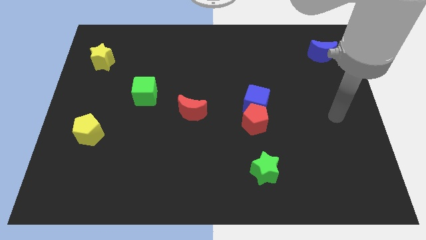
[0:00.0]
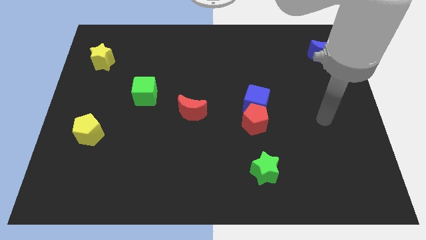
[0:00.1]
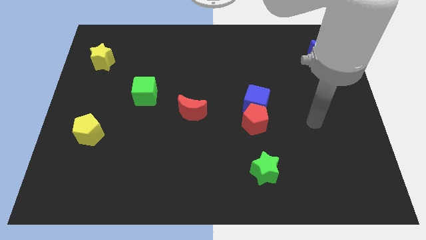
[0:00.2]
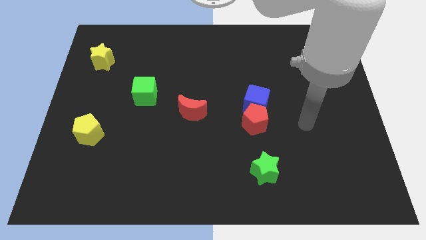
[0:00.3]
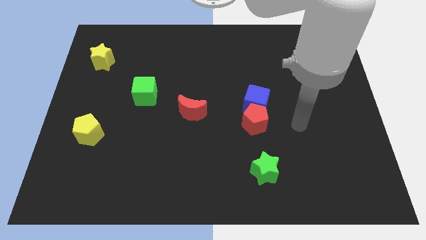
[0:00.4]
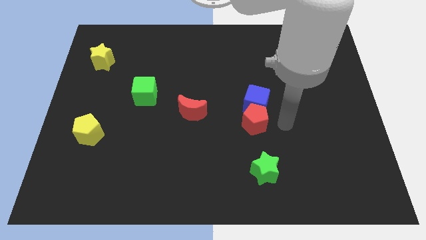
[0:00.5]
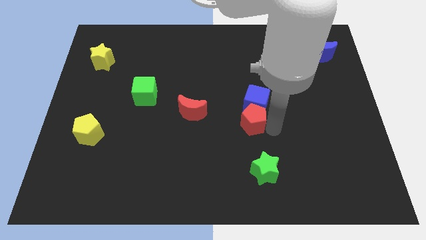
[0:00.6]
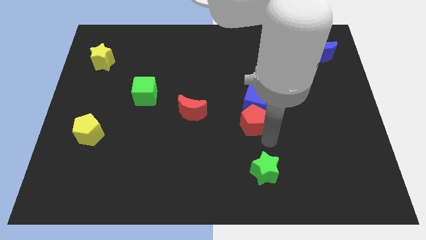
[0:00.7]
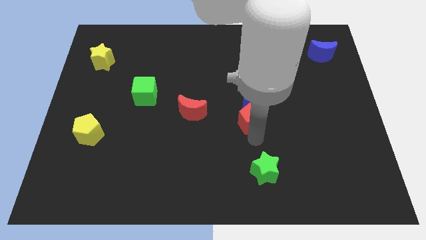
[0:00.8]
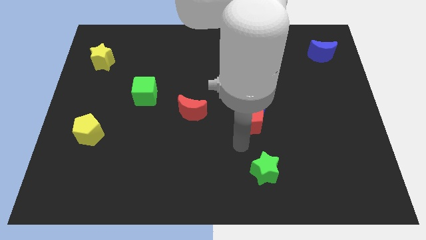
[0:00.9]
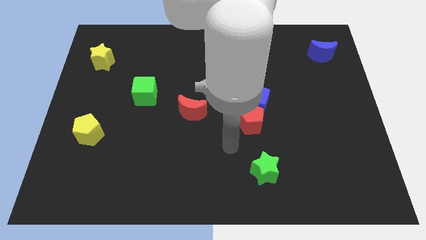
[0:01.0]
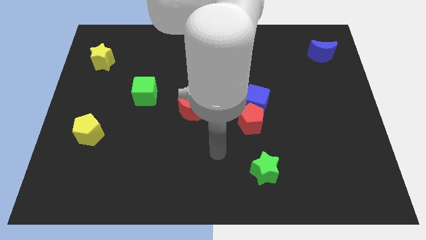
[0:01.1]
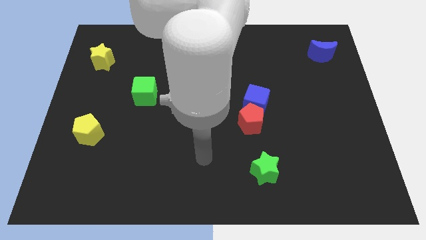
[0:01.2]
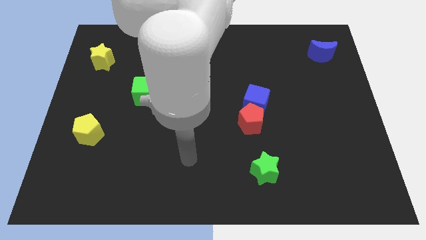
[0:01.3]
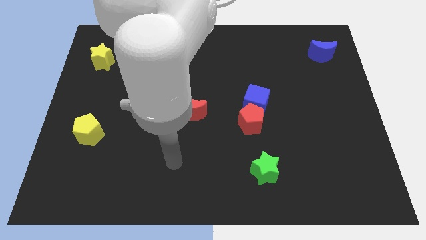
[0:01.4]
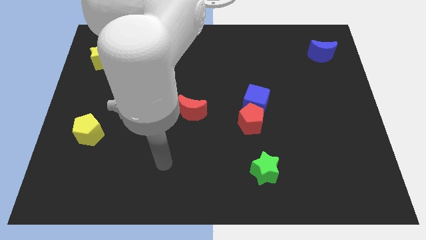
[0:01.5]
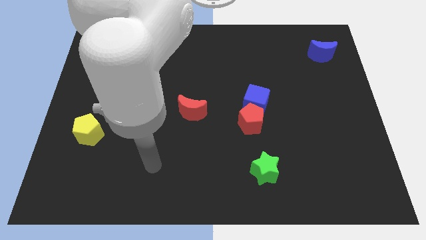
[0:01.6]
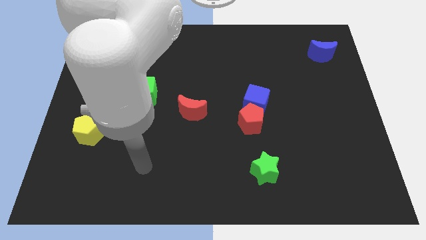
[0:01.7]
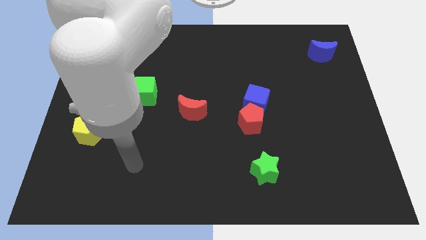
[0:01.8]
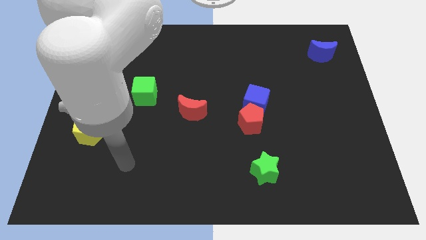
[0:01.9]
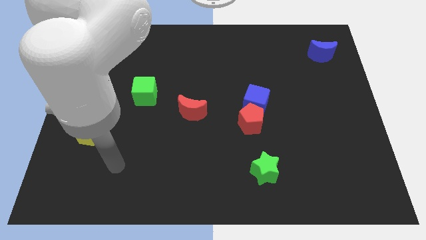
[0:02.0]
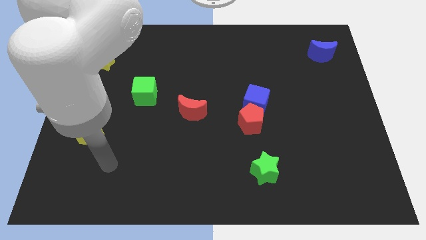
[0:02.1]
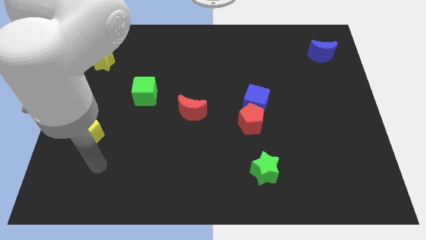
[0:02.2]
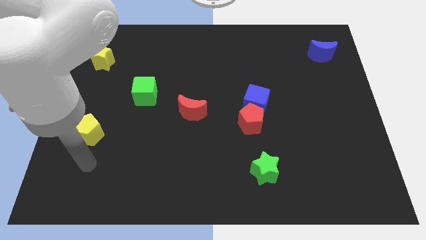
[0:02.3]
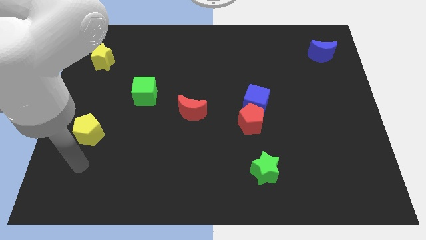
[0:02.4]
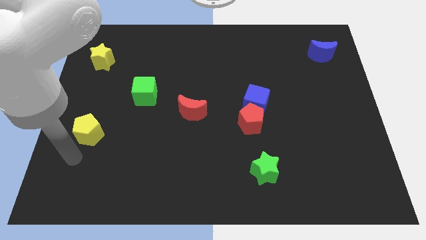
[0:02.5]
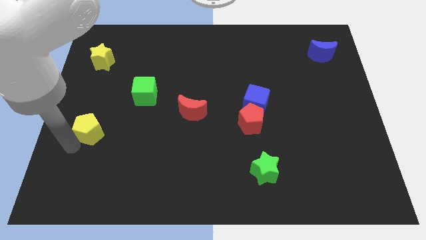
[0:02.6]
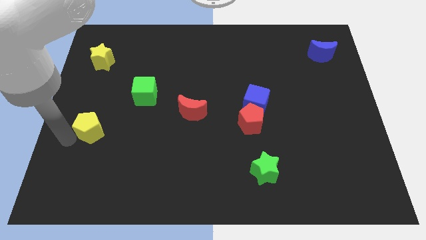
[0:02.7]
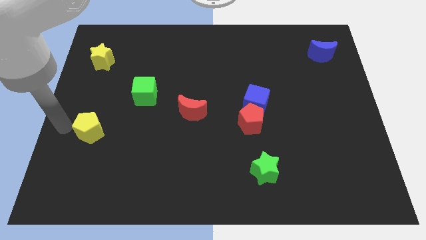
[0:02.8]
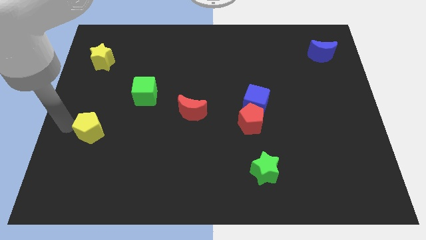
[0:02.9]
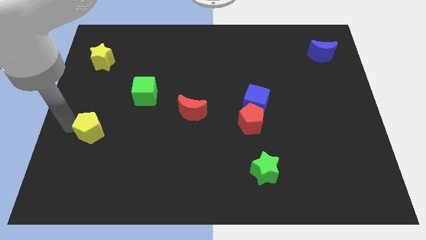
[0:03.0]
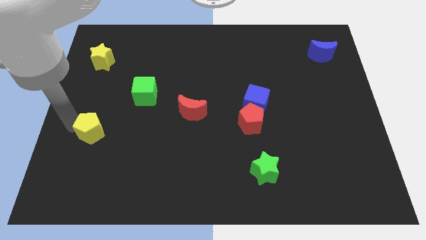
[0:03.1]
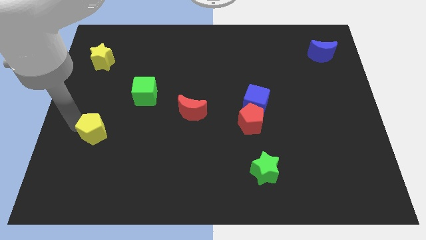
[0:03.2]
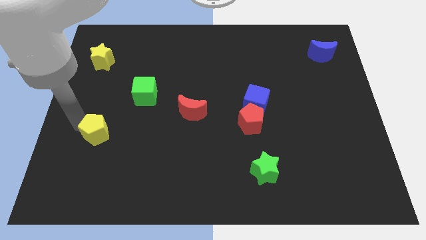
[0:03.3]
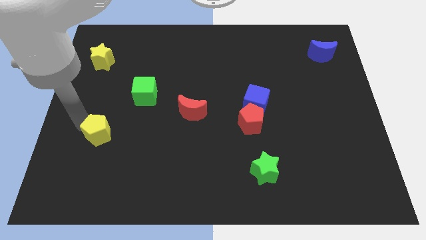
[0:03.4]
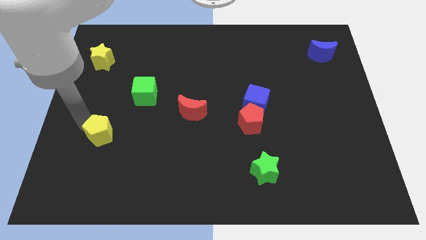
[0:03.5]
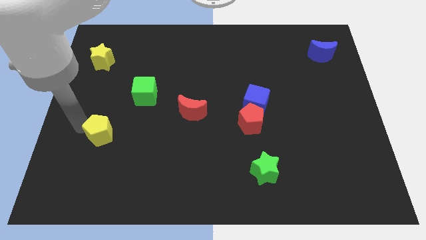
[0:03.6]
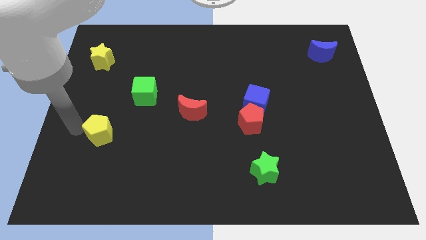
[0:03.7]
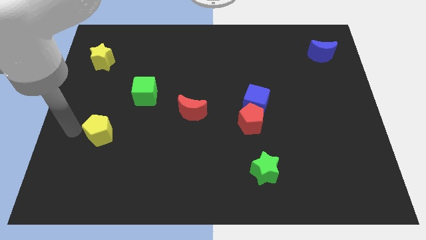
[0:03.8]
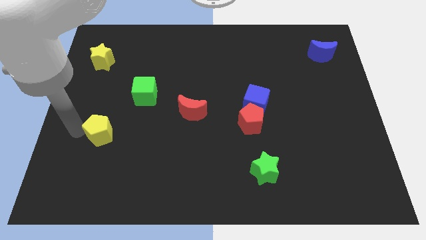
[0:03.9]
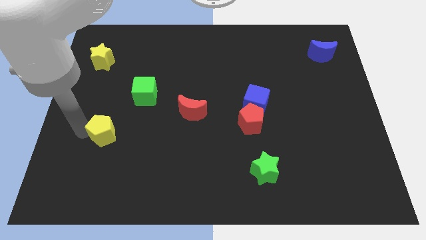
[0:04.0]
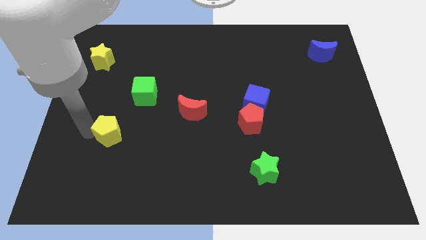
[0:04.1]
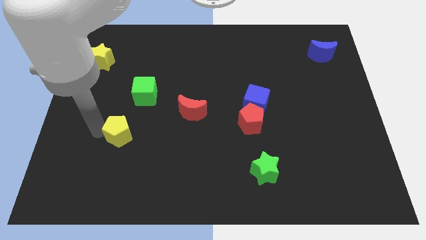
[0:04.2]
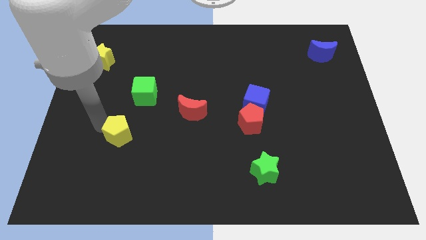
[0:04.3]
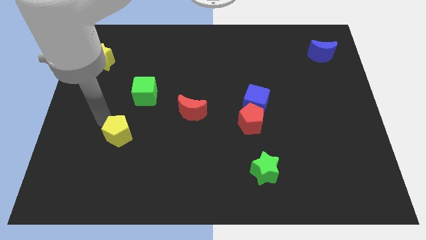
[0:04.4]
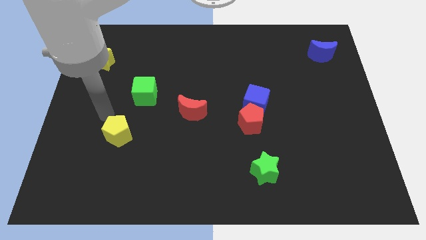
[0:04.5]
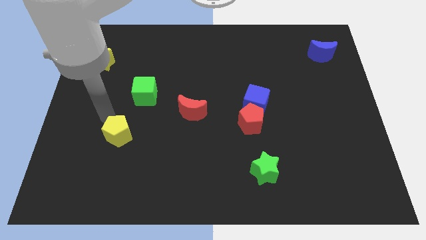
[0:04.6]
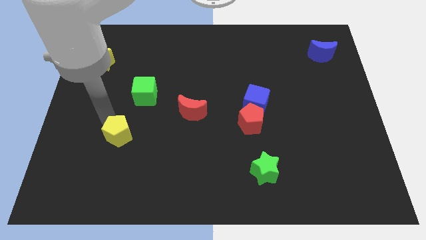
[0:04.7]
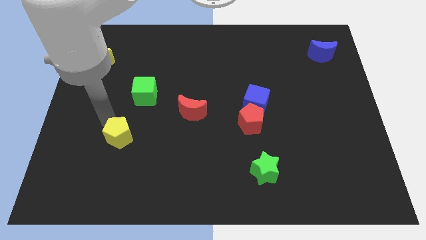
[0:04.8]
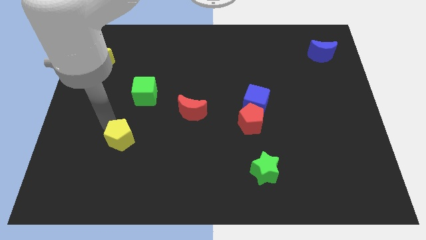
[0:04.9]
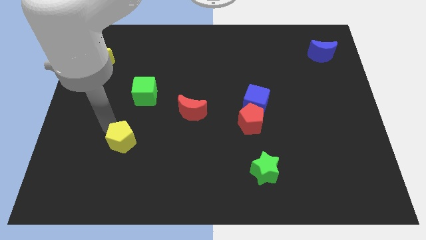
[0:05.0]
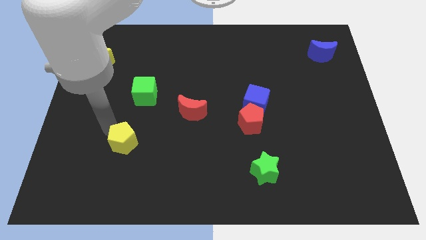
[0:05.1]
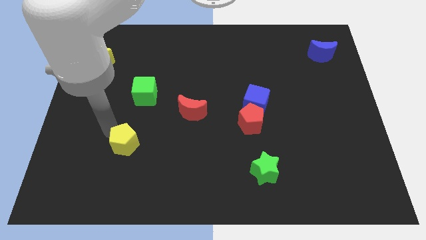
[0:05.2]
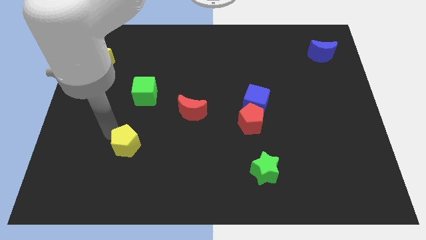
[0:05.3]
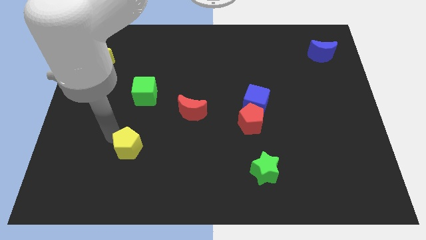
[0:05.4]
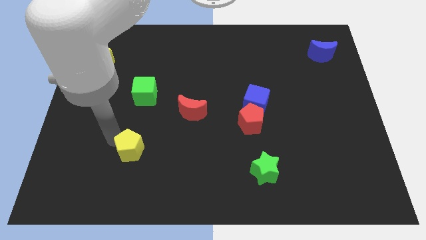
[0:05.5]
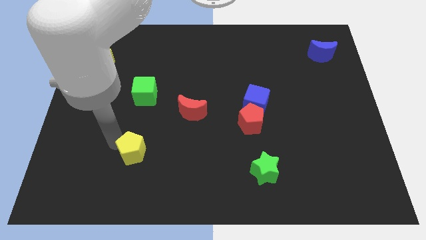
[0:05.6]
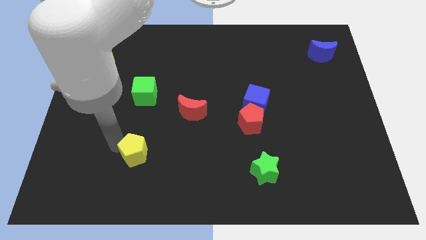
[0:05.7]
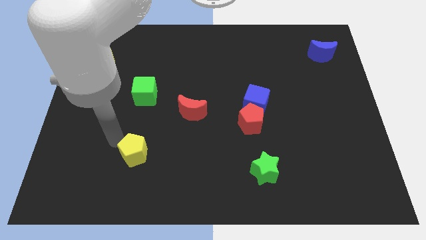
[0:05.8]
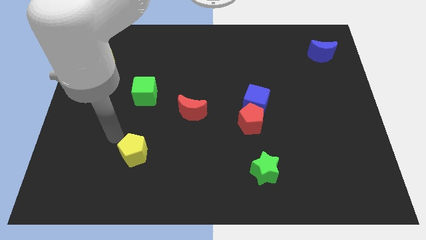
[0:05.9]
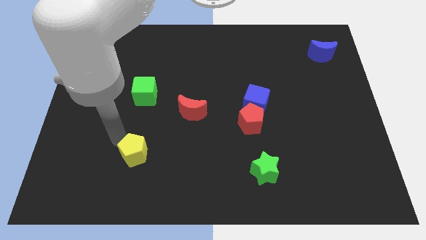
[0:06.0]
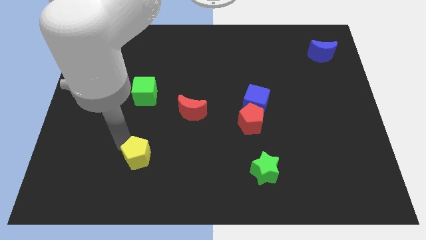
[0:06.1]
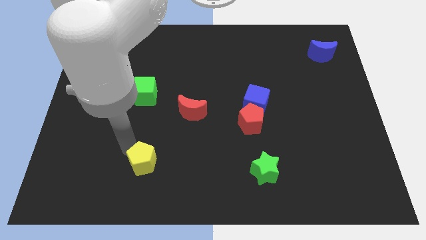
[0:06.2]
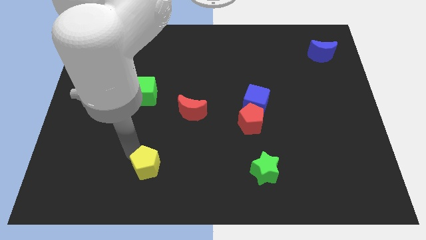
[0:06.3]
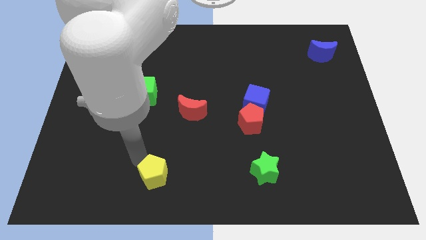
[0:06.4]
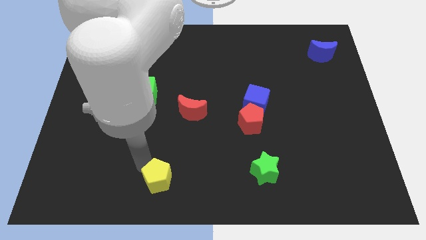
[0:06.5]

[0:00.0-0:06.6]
put the yellow pentagon to the bottom side

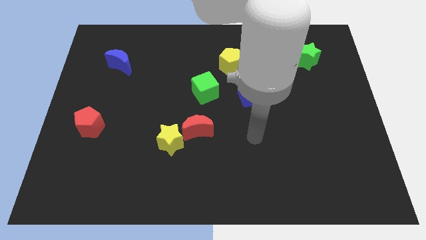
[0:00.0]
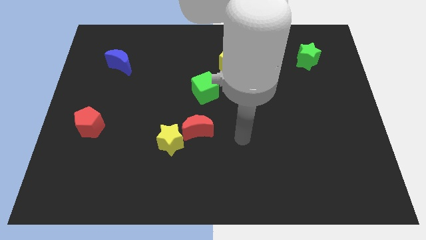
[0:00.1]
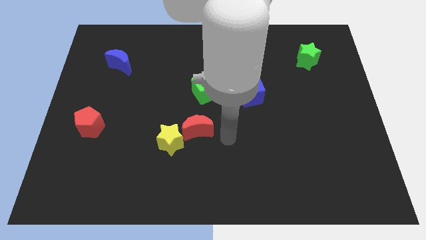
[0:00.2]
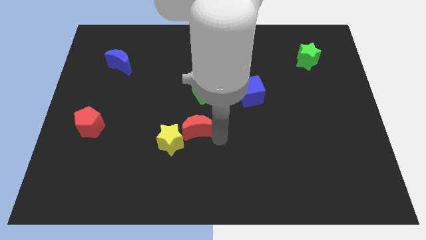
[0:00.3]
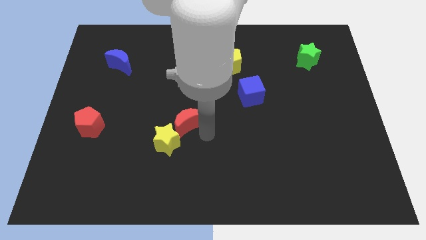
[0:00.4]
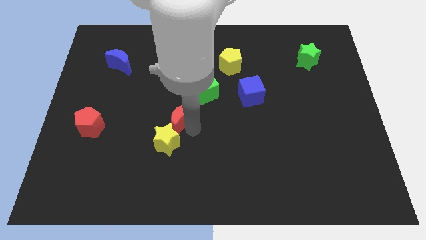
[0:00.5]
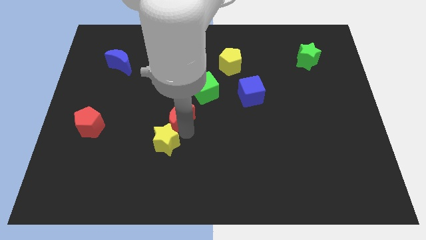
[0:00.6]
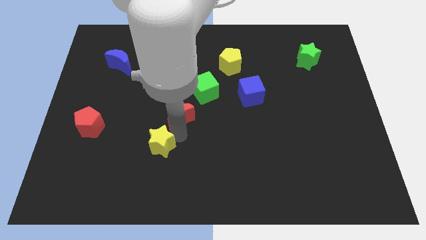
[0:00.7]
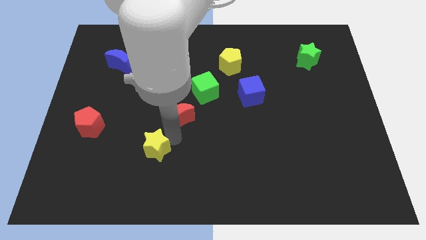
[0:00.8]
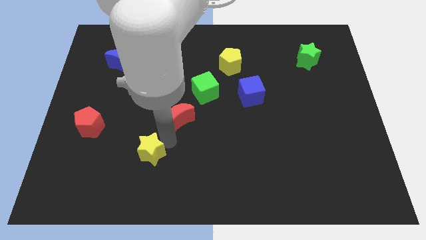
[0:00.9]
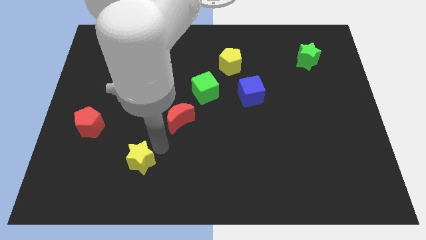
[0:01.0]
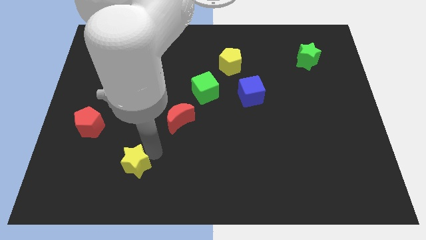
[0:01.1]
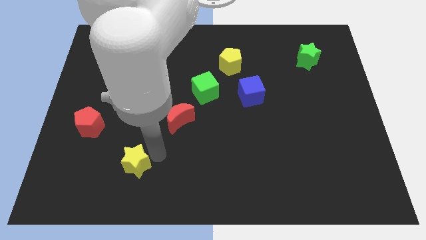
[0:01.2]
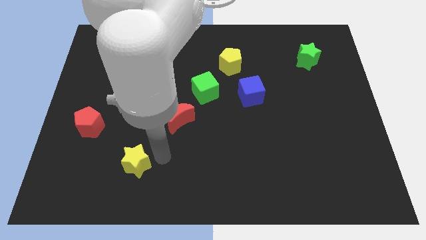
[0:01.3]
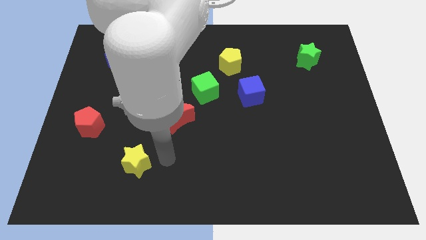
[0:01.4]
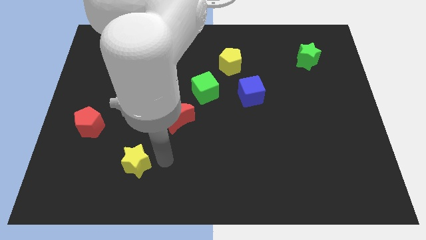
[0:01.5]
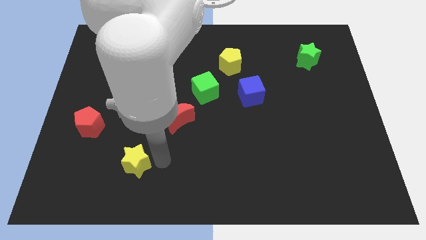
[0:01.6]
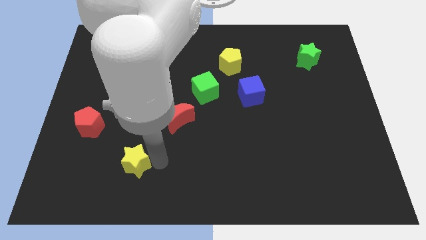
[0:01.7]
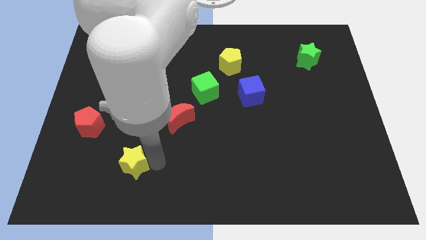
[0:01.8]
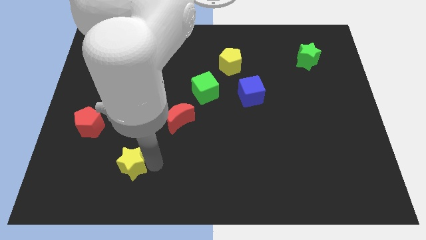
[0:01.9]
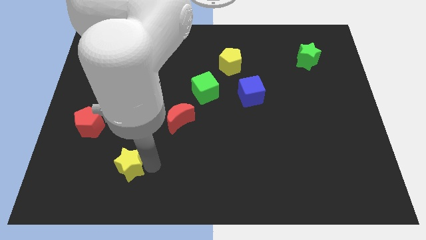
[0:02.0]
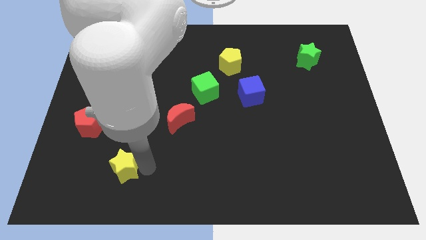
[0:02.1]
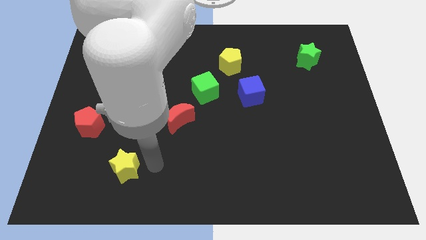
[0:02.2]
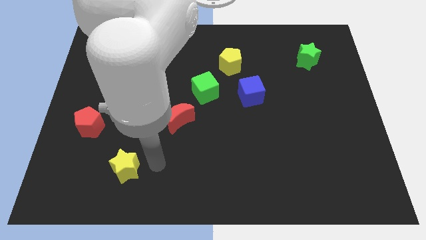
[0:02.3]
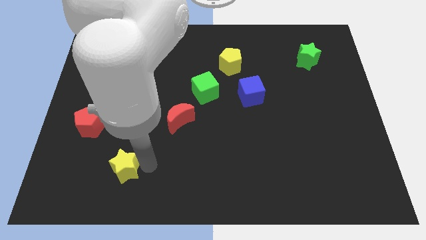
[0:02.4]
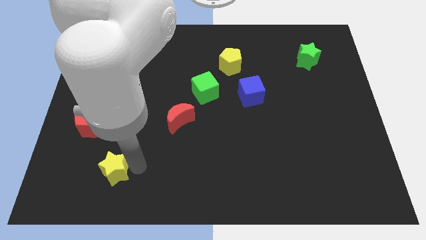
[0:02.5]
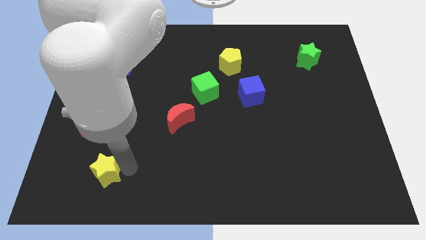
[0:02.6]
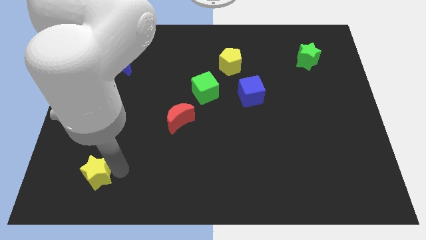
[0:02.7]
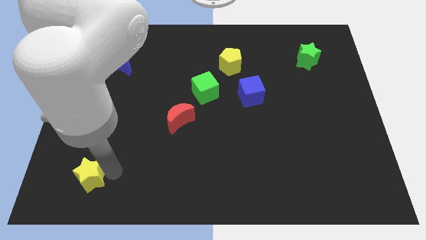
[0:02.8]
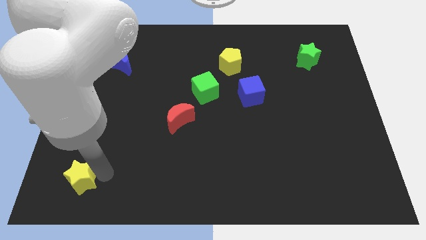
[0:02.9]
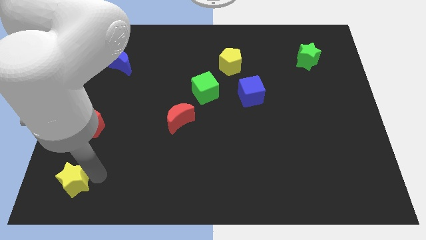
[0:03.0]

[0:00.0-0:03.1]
slide the yellow star to the lower left corner
